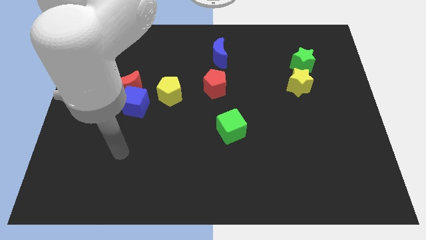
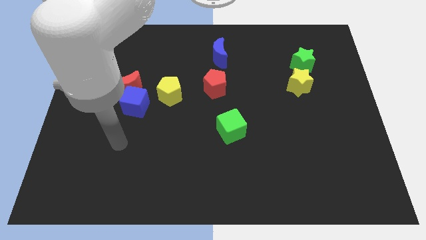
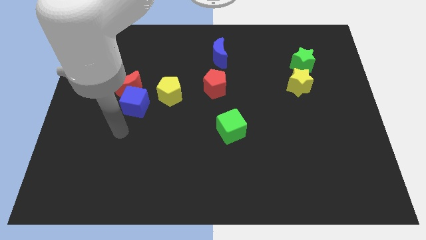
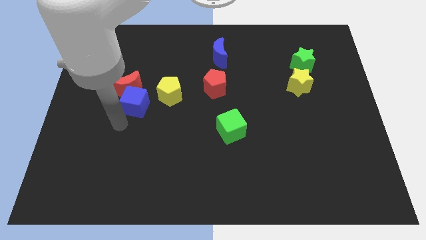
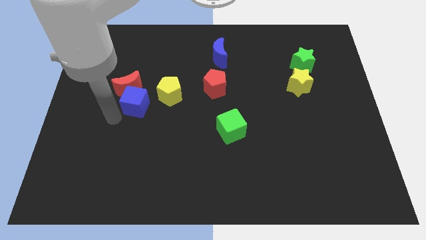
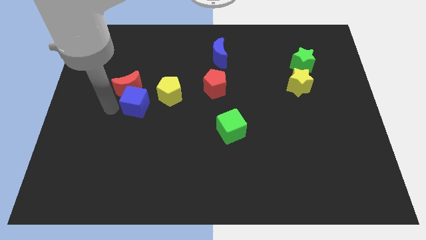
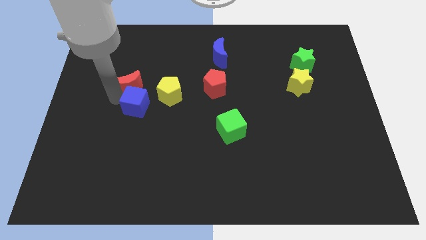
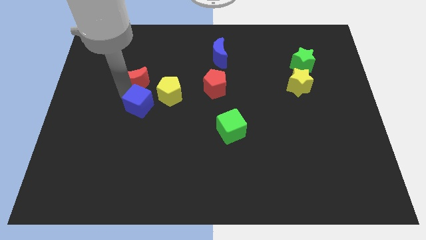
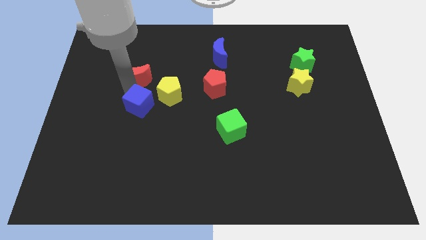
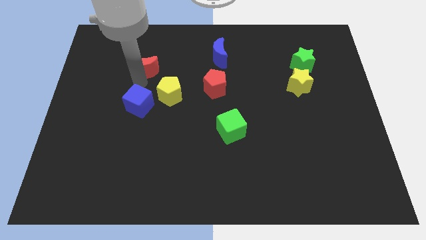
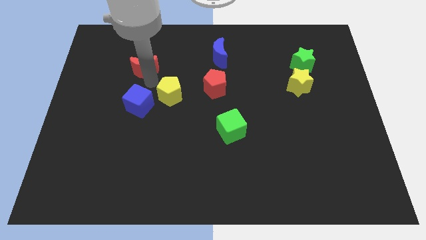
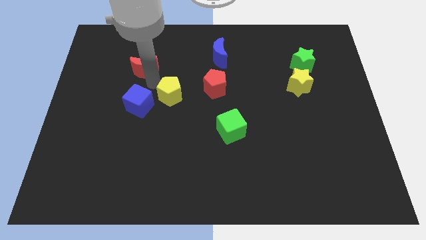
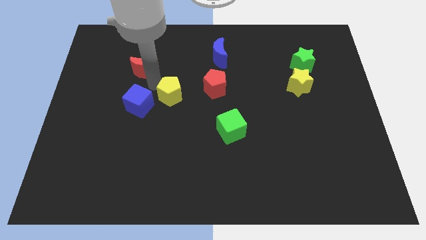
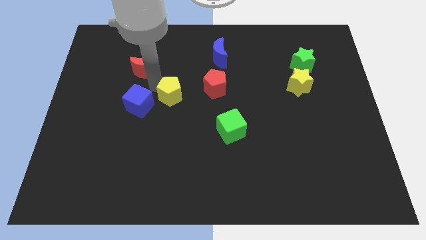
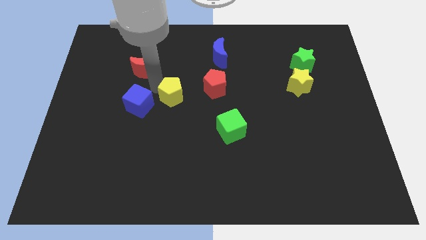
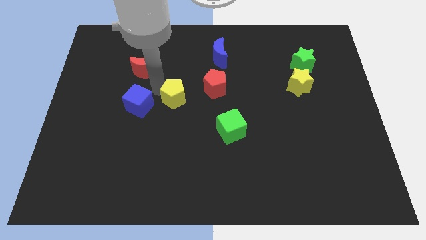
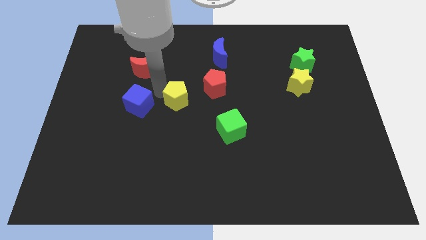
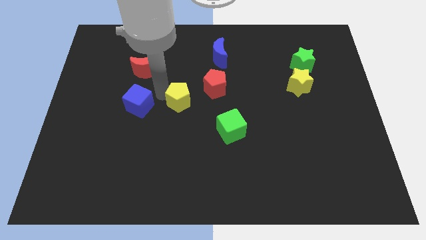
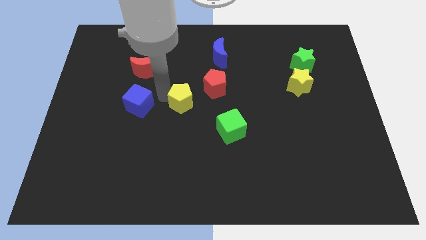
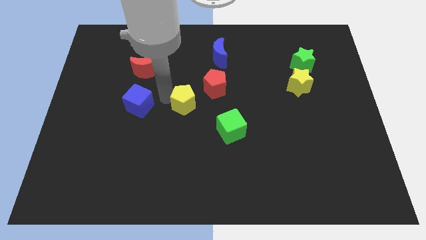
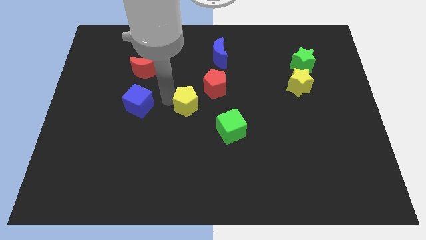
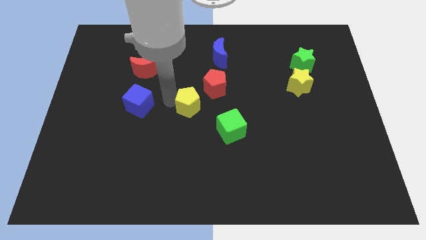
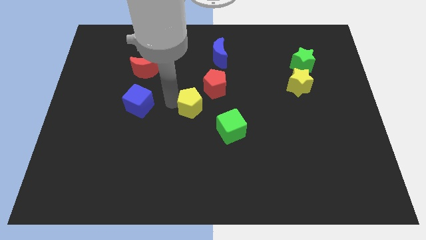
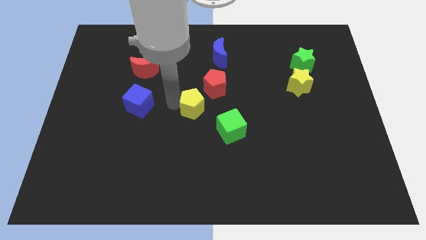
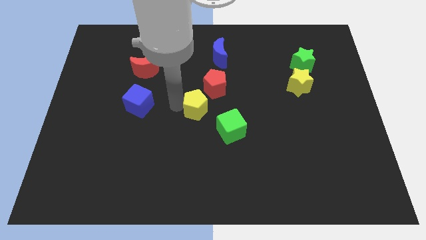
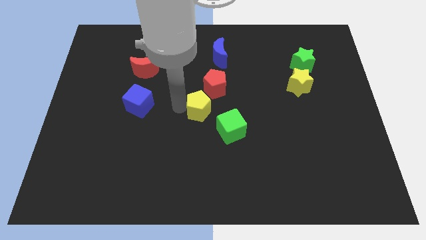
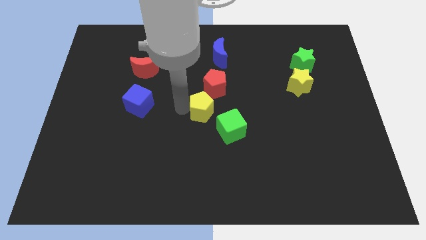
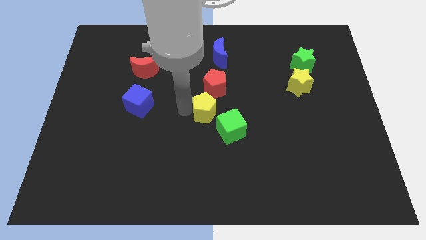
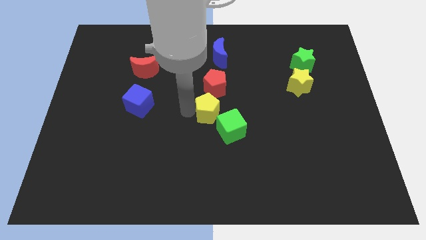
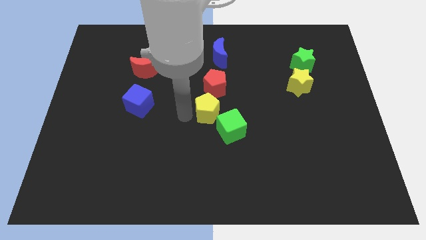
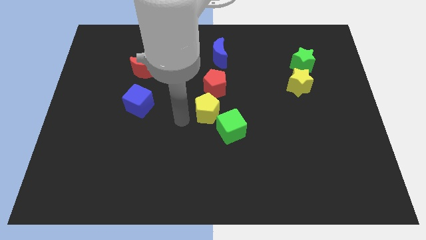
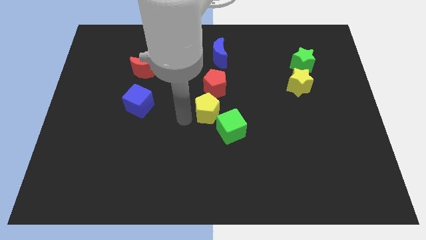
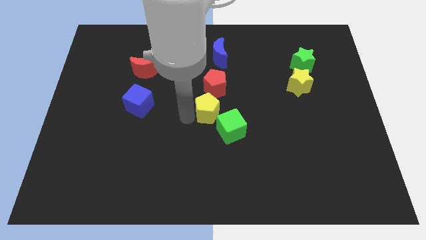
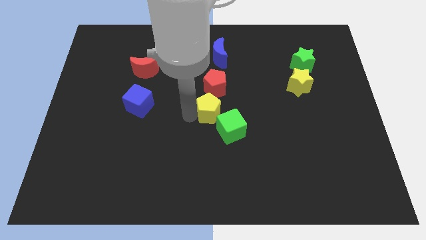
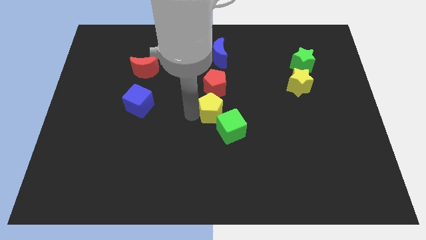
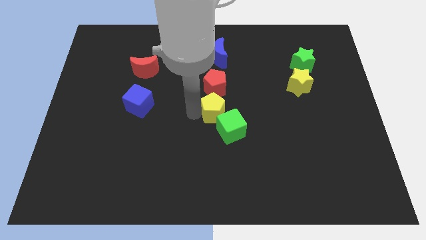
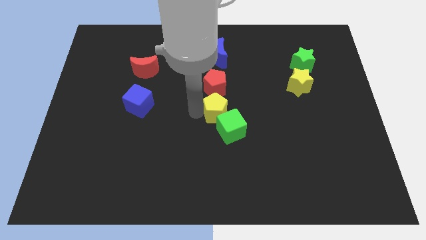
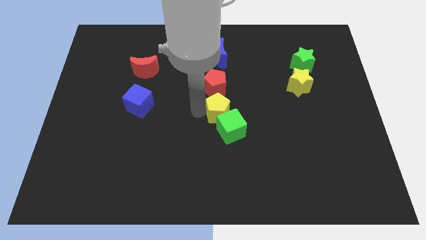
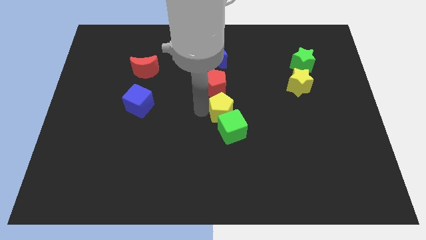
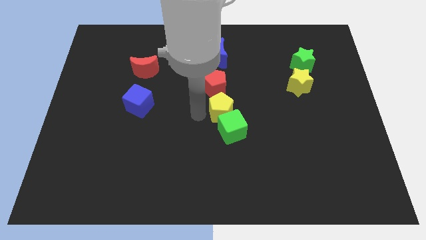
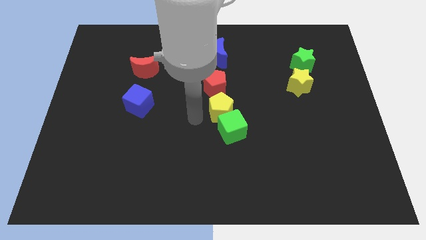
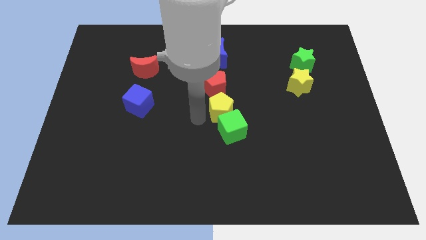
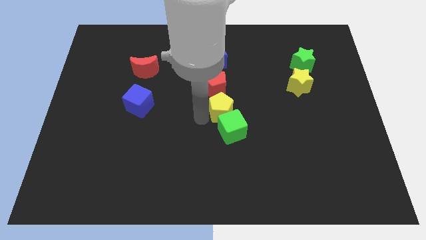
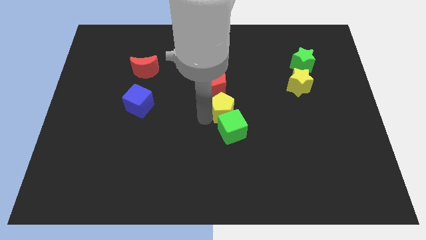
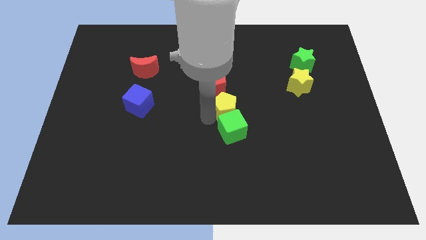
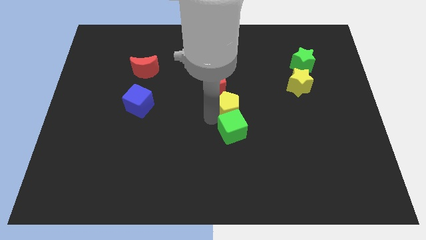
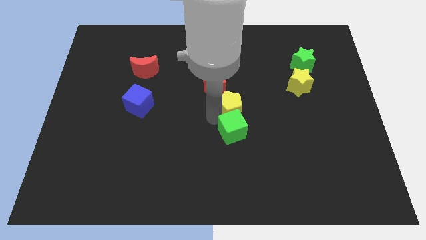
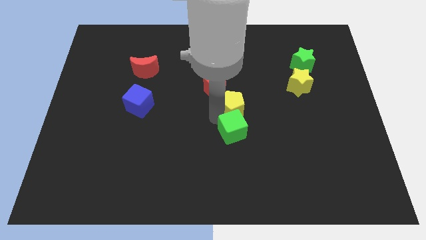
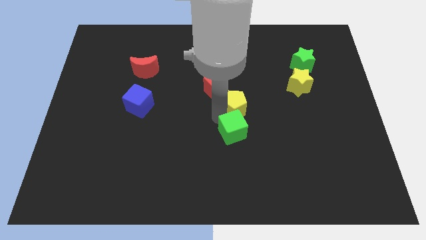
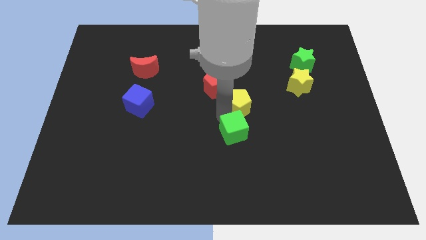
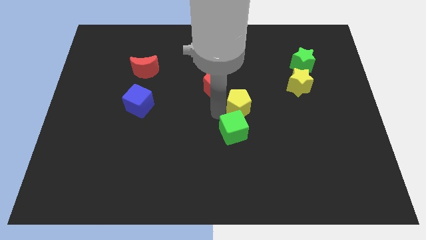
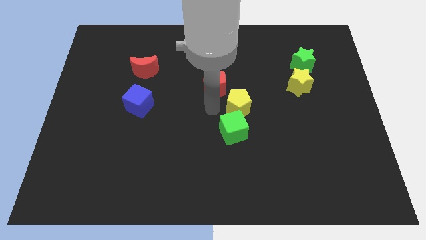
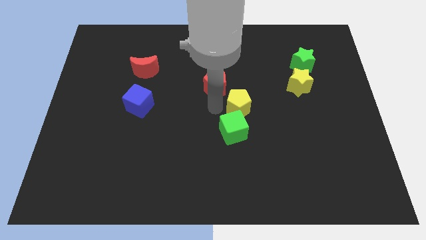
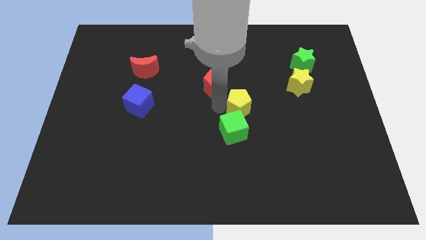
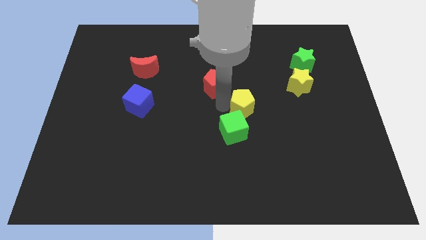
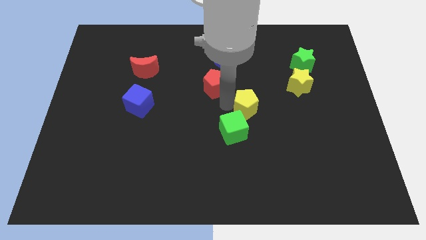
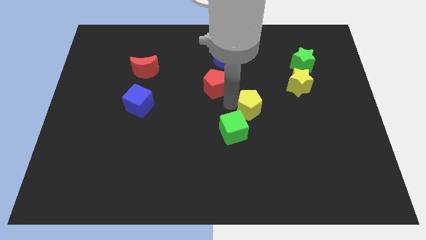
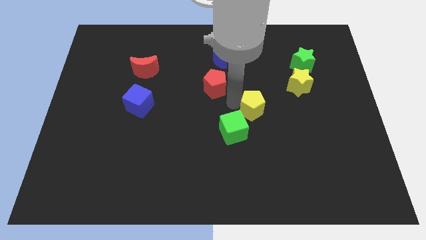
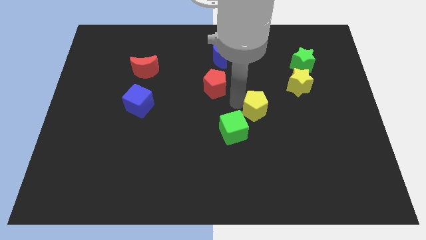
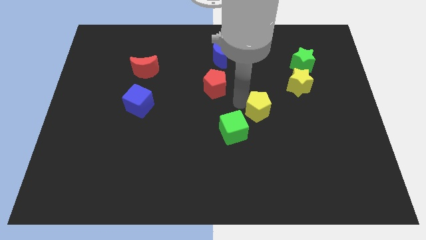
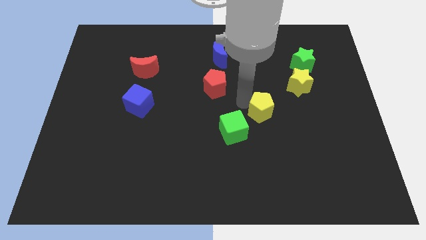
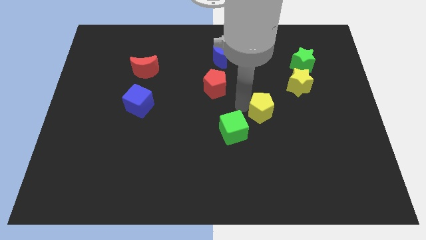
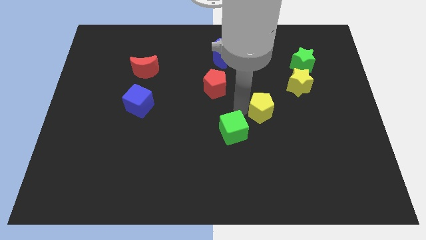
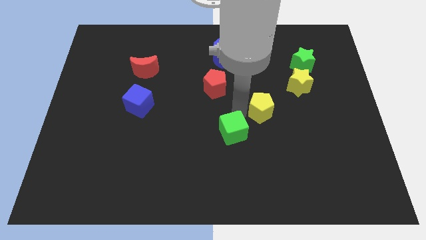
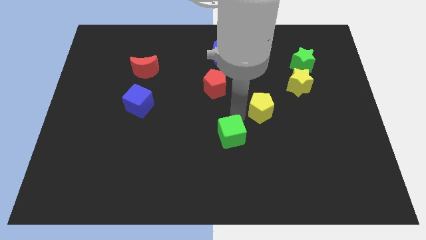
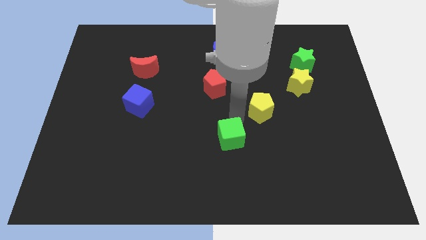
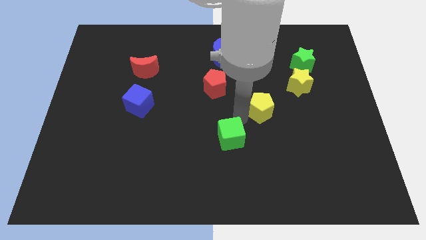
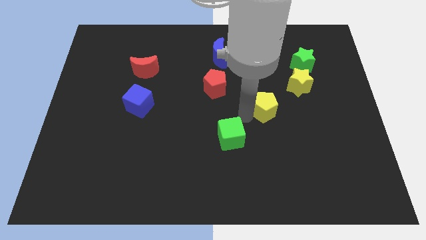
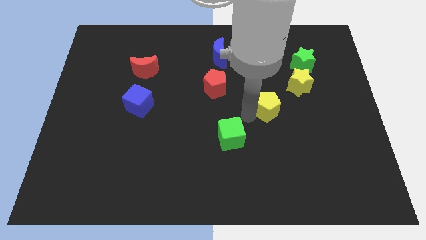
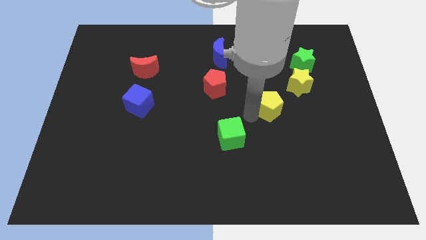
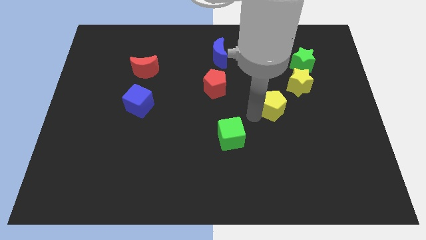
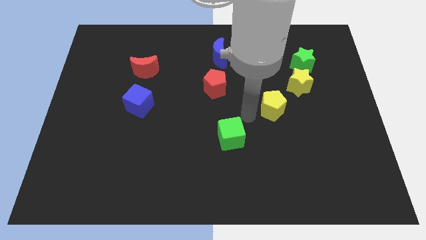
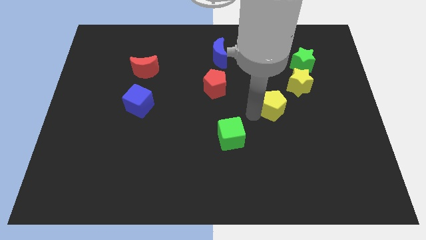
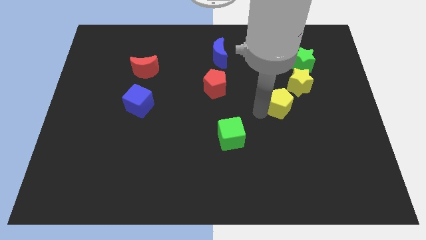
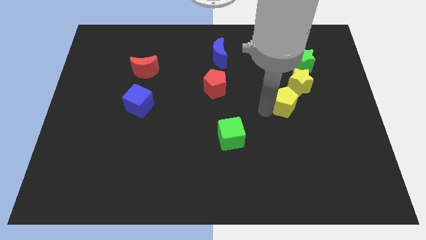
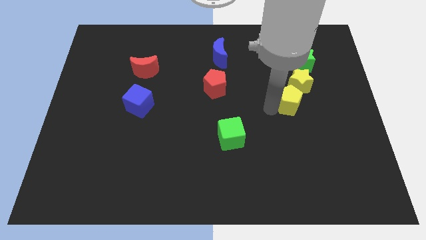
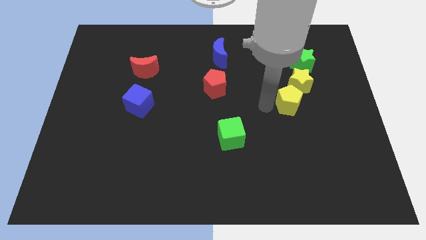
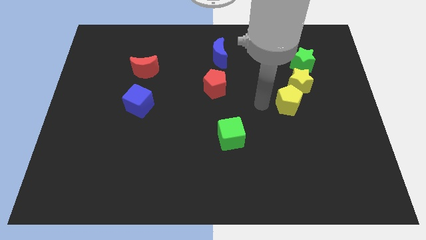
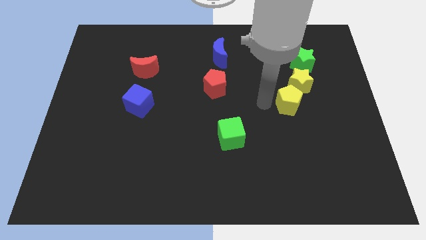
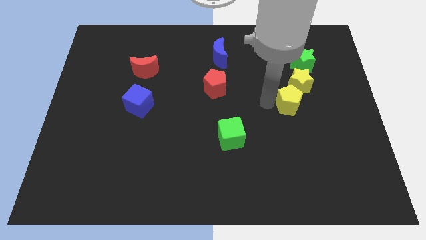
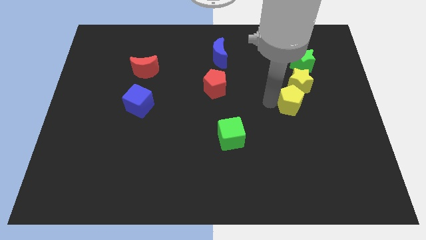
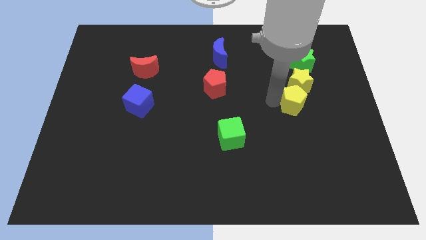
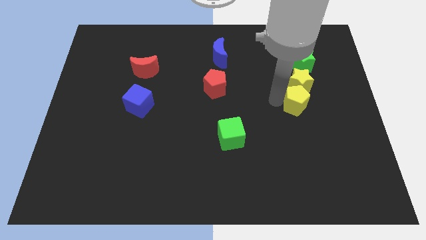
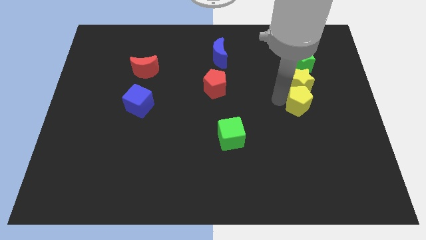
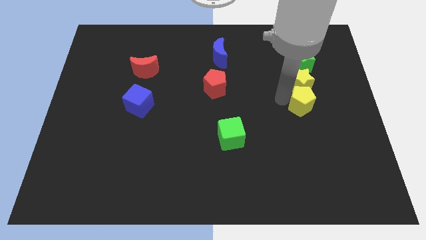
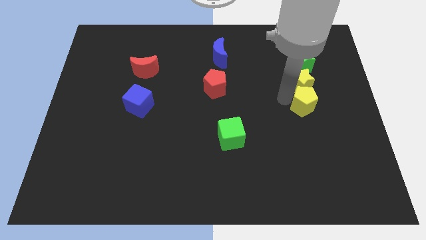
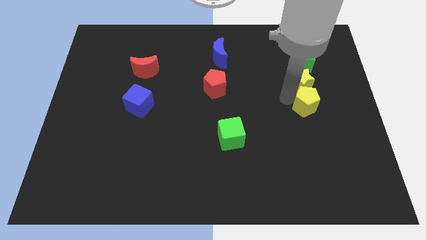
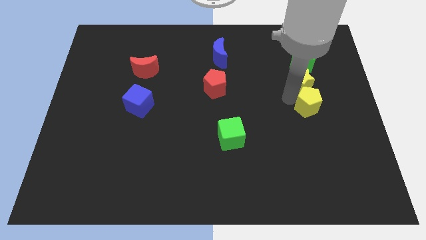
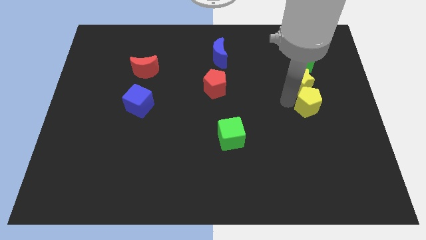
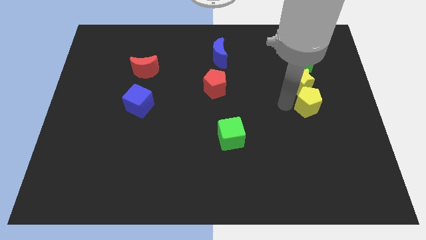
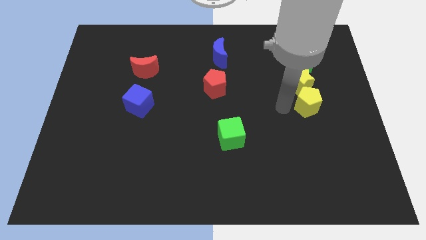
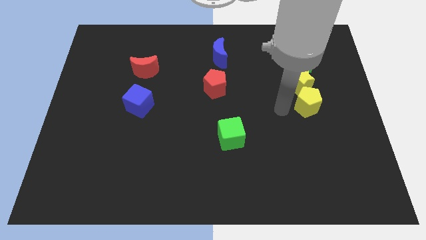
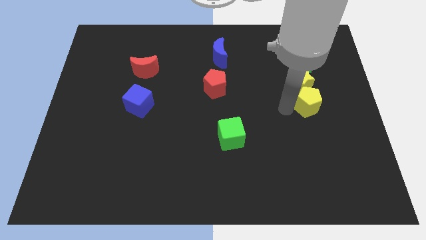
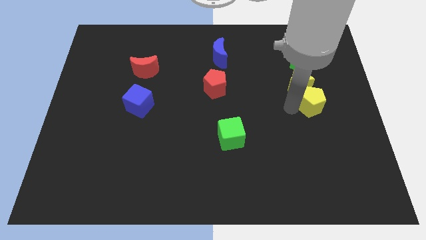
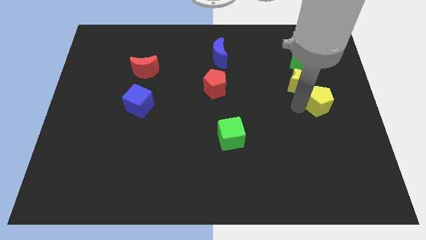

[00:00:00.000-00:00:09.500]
slide the yellow pentagon to the right side of the board
